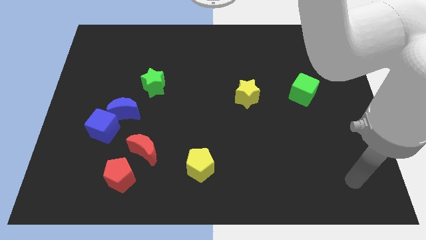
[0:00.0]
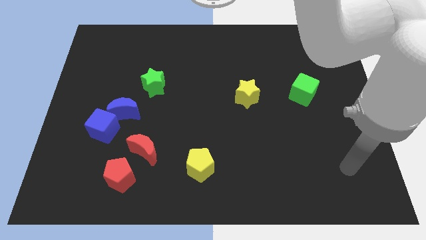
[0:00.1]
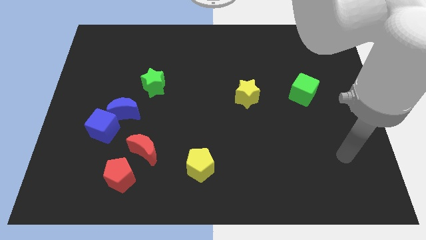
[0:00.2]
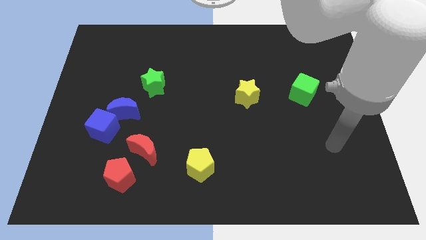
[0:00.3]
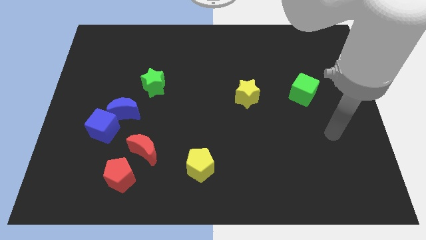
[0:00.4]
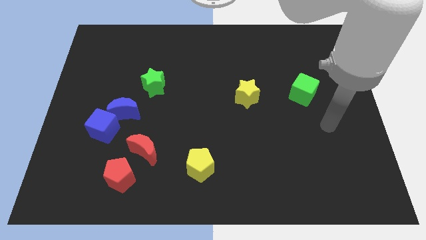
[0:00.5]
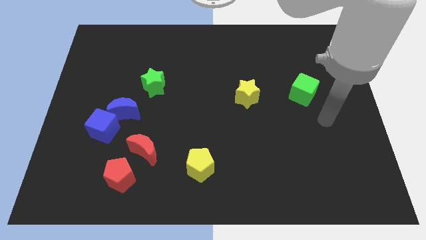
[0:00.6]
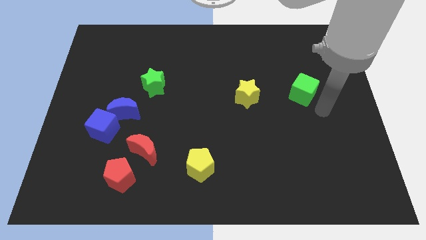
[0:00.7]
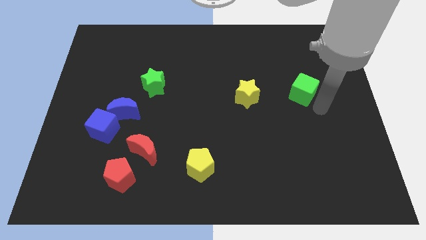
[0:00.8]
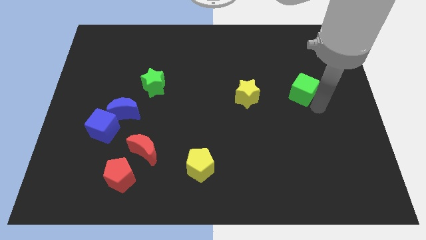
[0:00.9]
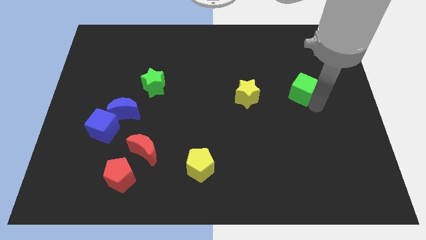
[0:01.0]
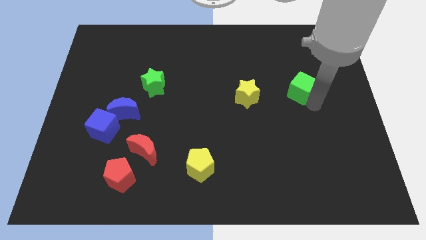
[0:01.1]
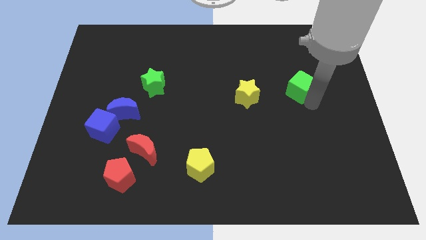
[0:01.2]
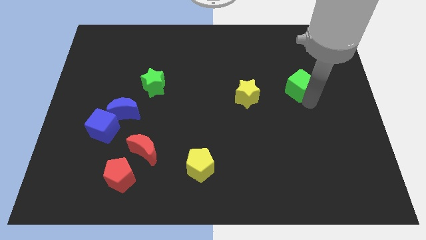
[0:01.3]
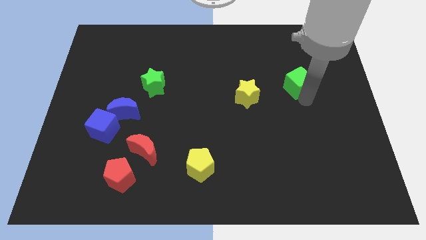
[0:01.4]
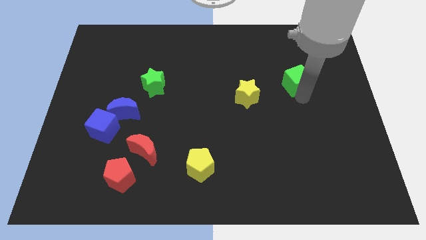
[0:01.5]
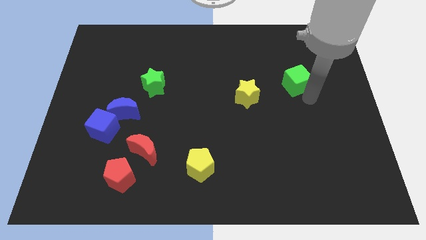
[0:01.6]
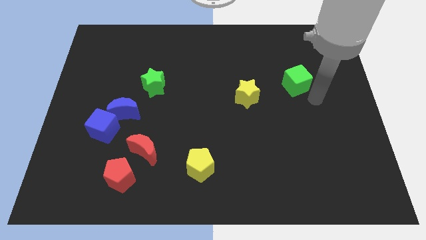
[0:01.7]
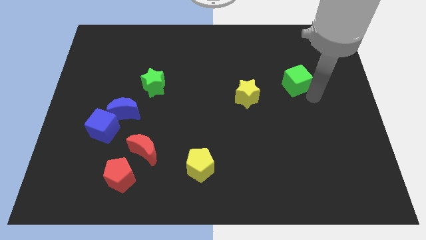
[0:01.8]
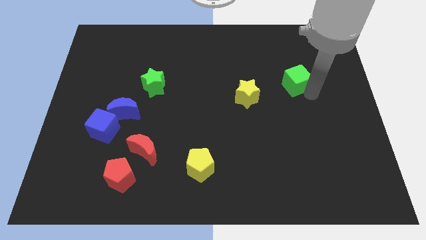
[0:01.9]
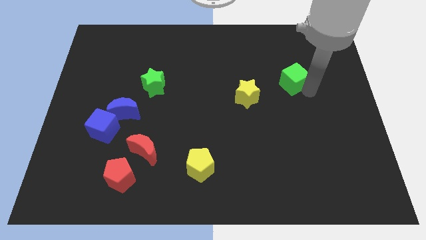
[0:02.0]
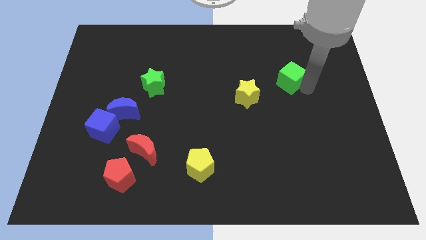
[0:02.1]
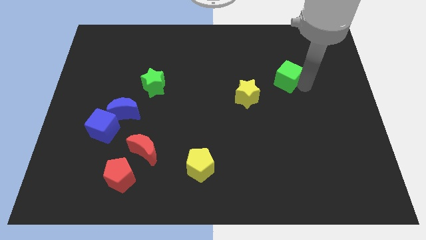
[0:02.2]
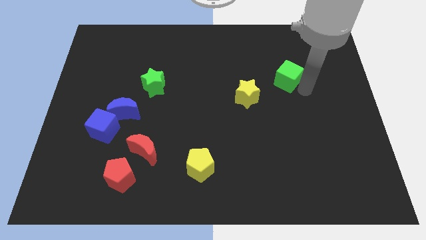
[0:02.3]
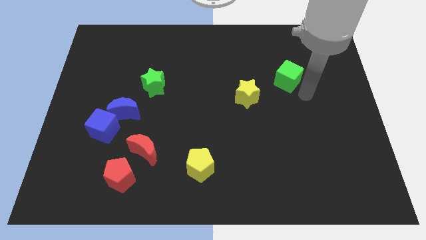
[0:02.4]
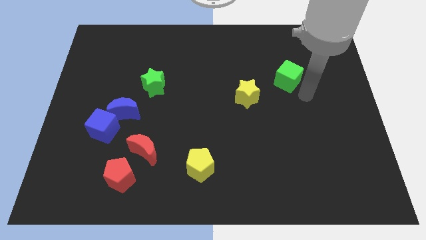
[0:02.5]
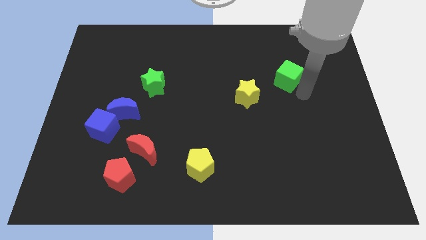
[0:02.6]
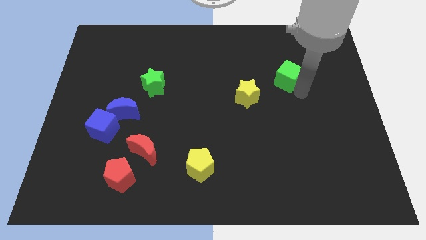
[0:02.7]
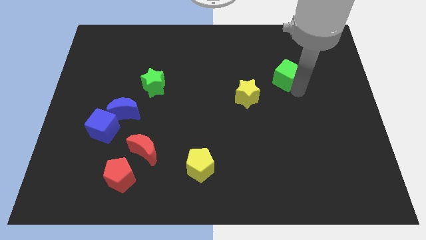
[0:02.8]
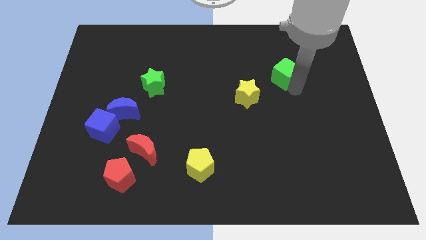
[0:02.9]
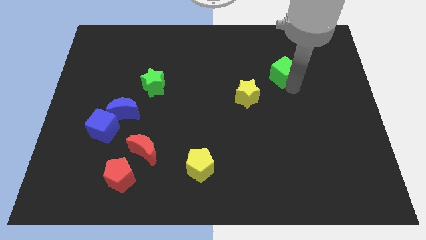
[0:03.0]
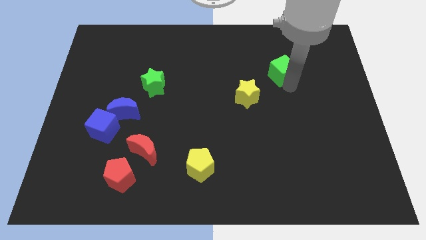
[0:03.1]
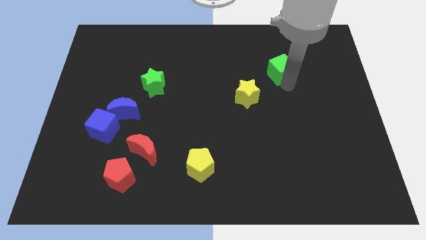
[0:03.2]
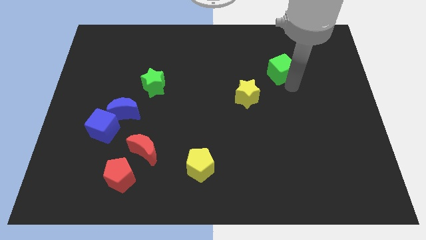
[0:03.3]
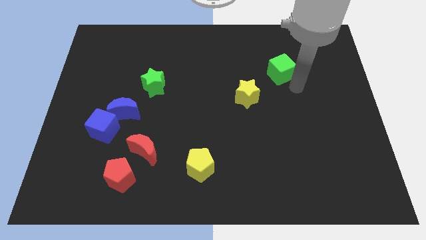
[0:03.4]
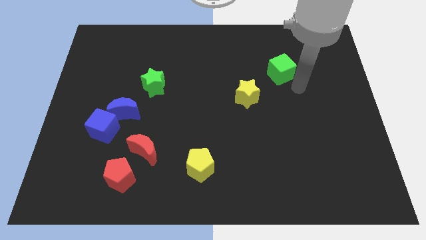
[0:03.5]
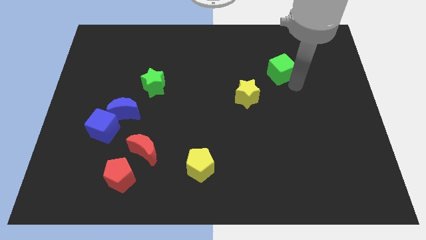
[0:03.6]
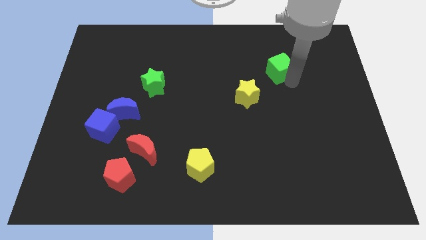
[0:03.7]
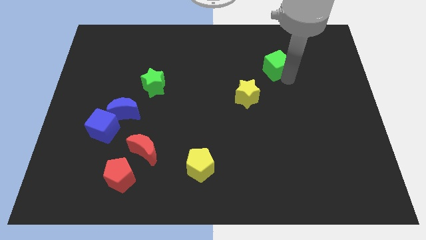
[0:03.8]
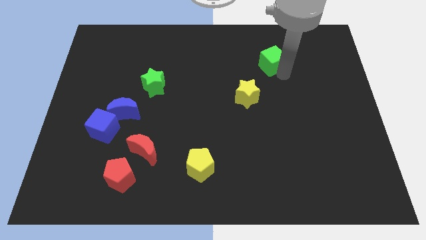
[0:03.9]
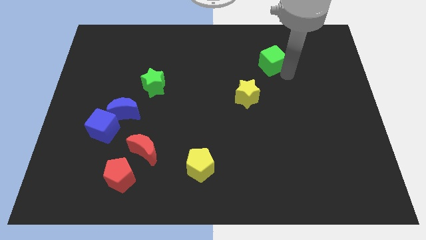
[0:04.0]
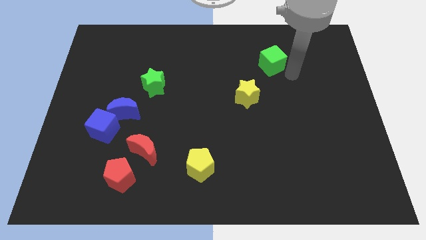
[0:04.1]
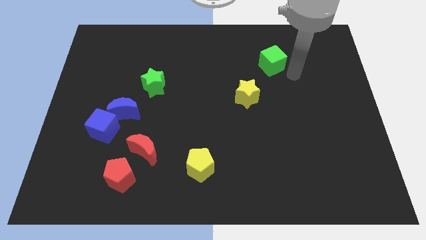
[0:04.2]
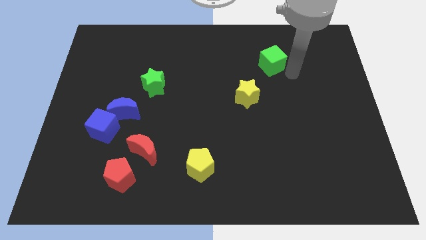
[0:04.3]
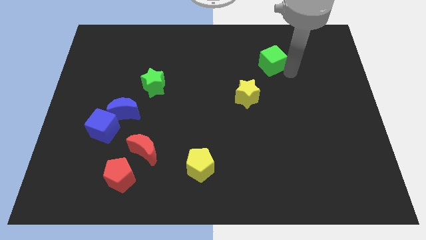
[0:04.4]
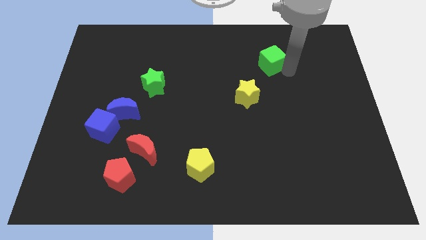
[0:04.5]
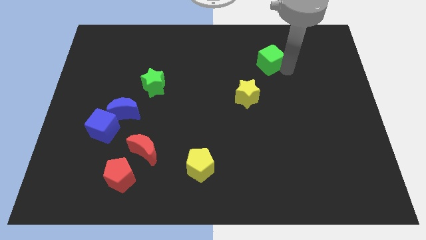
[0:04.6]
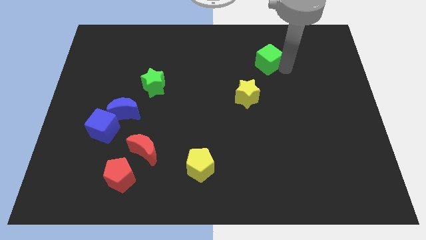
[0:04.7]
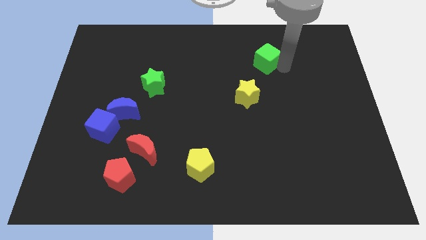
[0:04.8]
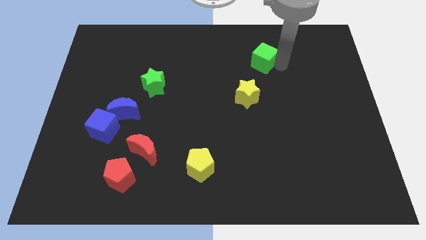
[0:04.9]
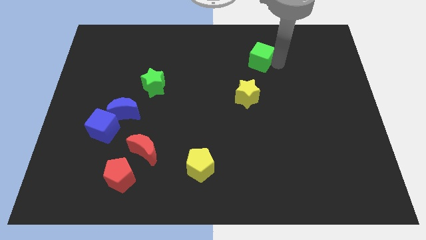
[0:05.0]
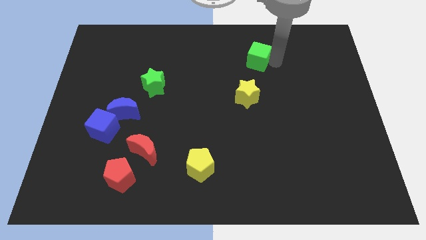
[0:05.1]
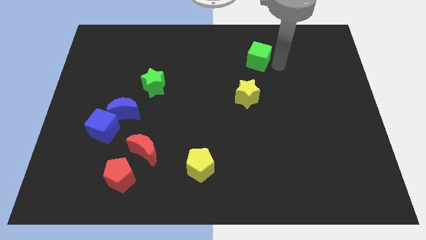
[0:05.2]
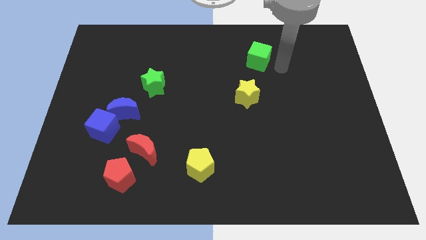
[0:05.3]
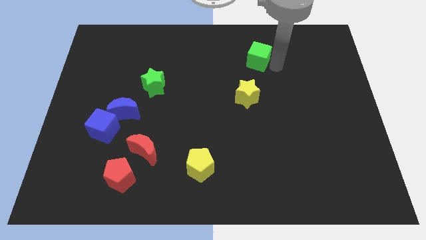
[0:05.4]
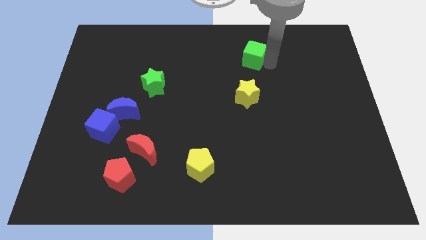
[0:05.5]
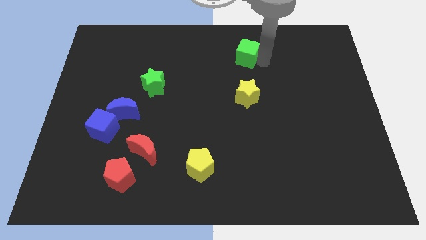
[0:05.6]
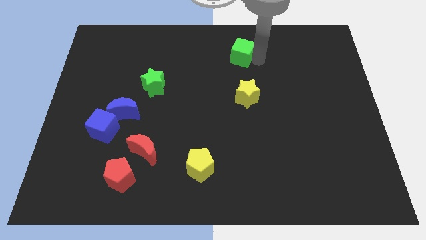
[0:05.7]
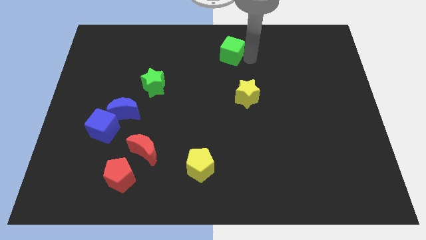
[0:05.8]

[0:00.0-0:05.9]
move the green cube to the towards your base
